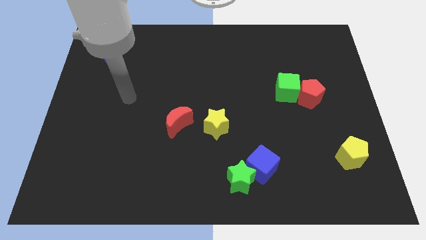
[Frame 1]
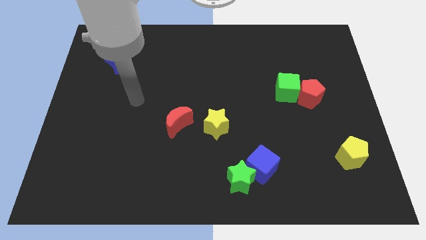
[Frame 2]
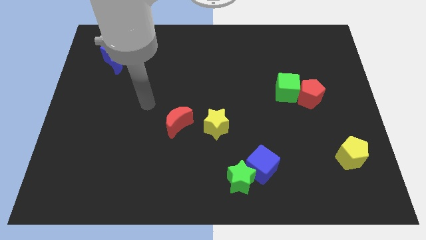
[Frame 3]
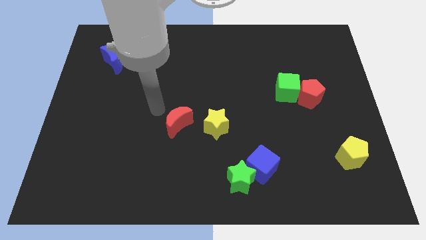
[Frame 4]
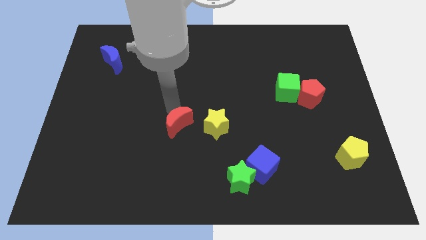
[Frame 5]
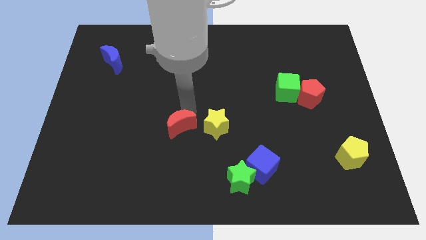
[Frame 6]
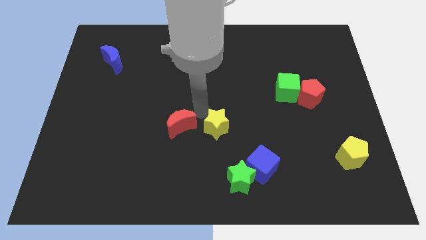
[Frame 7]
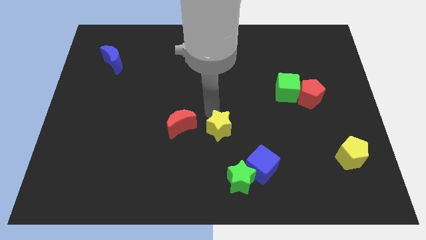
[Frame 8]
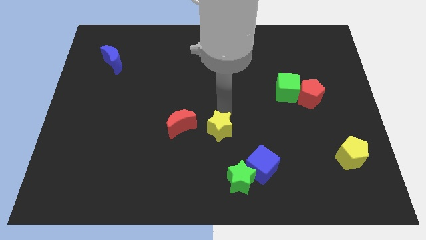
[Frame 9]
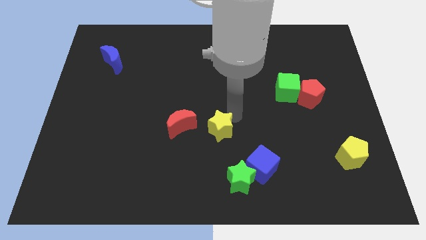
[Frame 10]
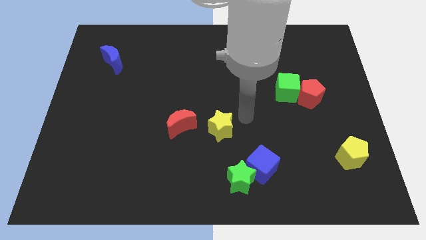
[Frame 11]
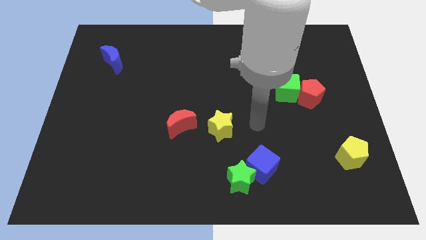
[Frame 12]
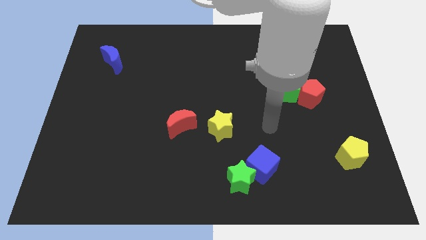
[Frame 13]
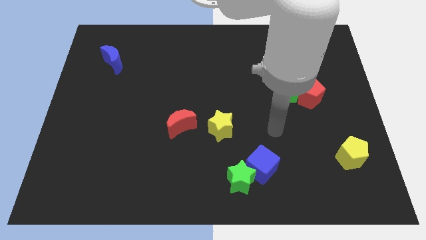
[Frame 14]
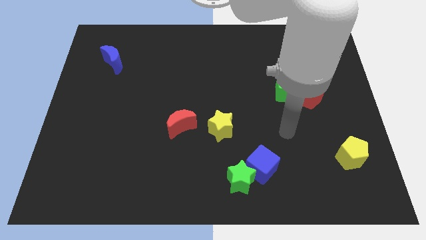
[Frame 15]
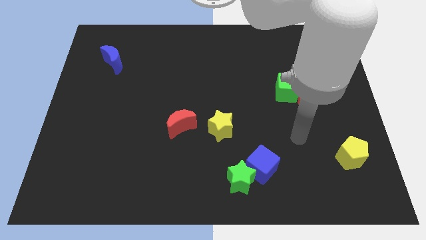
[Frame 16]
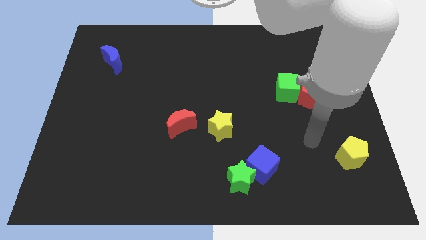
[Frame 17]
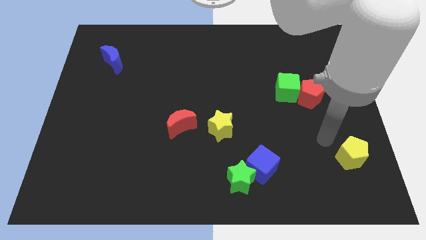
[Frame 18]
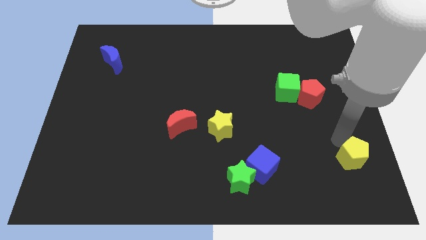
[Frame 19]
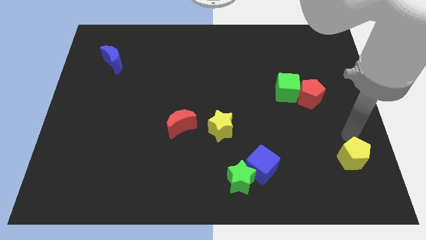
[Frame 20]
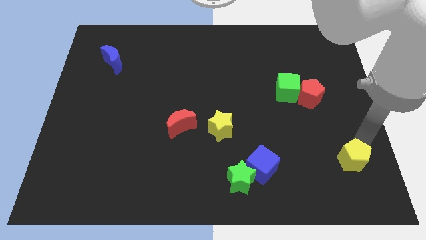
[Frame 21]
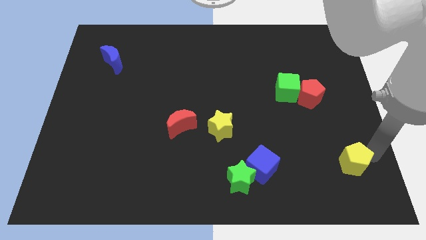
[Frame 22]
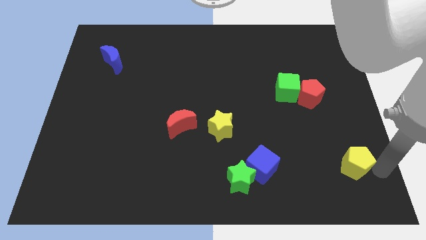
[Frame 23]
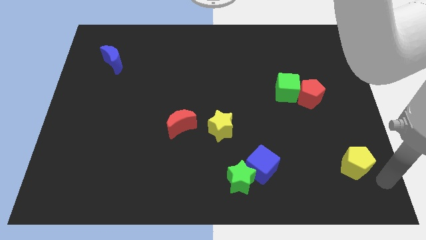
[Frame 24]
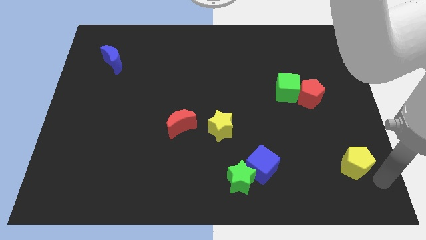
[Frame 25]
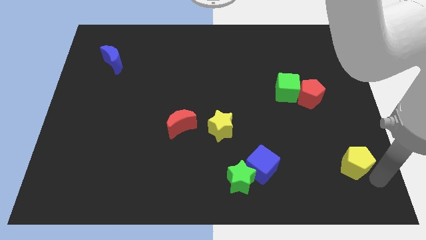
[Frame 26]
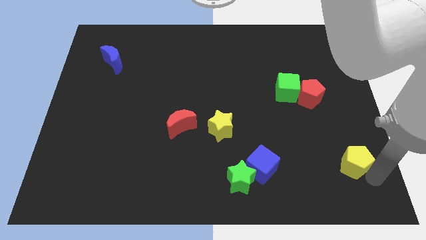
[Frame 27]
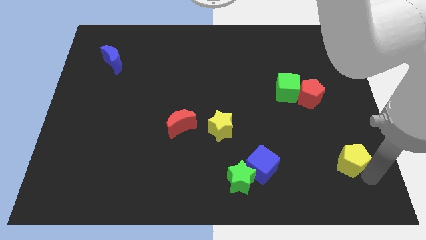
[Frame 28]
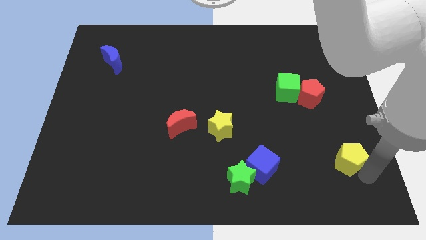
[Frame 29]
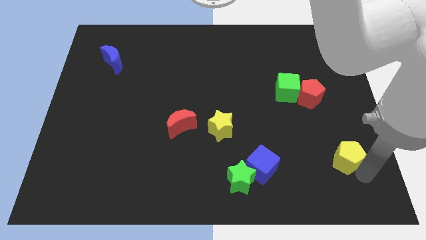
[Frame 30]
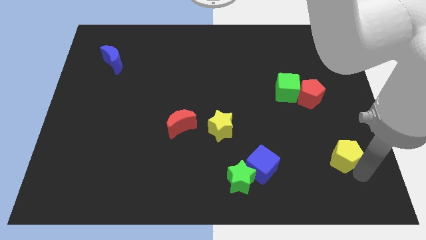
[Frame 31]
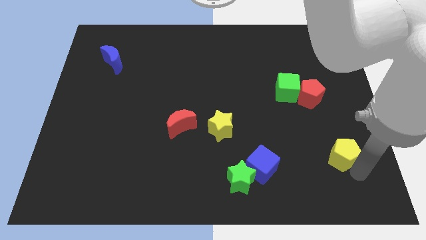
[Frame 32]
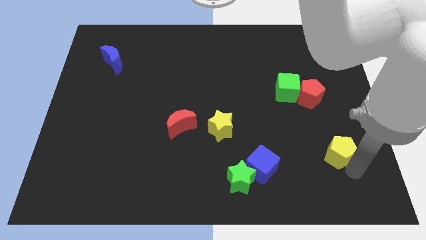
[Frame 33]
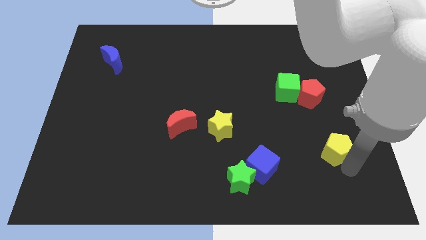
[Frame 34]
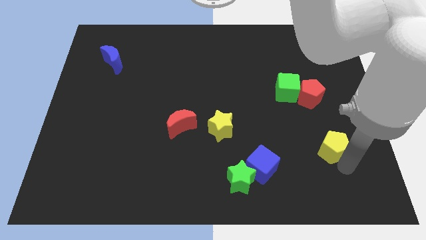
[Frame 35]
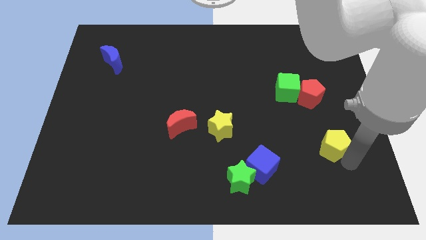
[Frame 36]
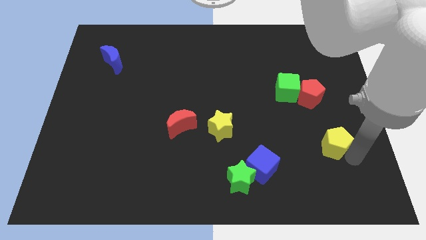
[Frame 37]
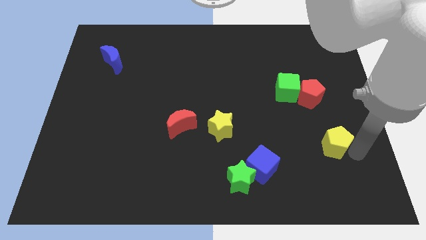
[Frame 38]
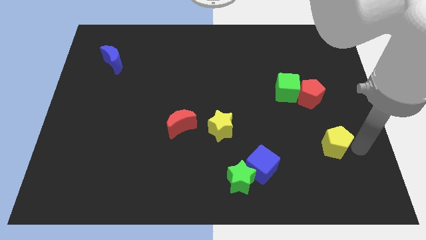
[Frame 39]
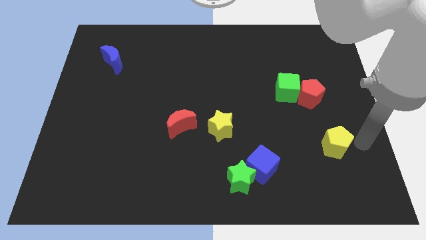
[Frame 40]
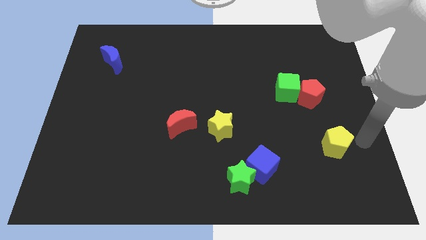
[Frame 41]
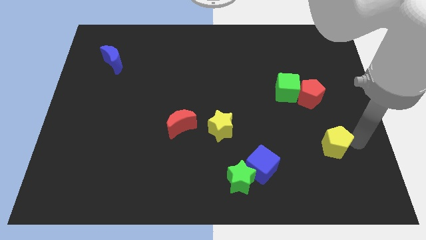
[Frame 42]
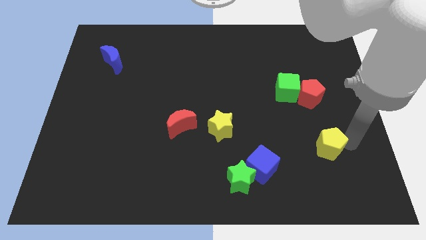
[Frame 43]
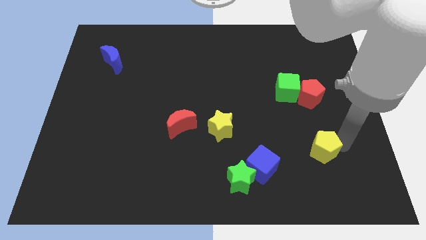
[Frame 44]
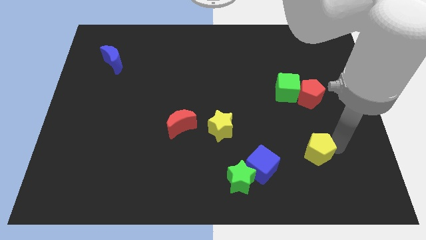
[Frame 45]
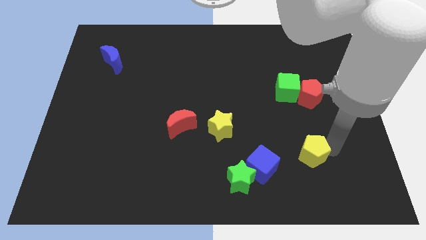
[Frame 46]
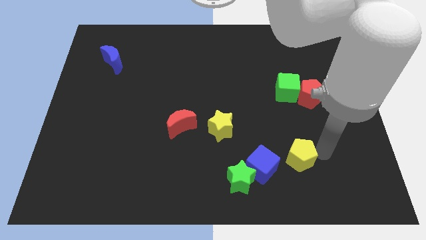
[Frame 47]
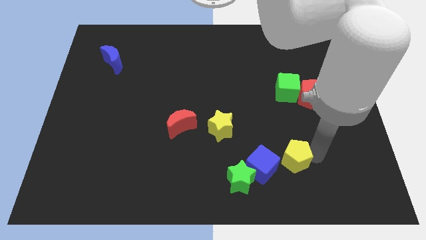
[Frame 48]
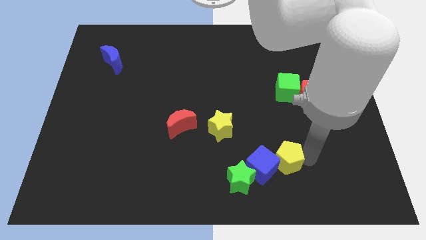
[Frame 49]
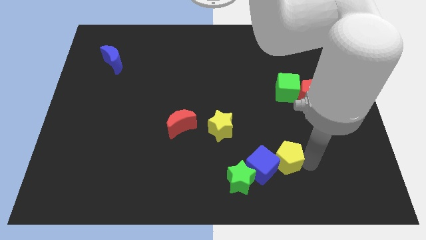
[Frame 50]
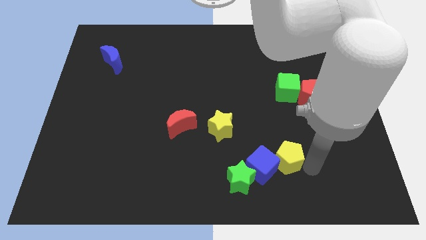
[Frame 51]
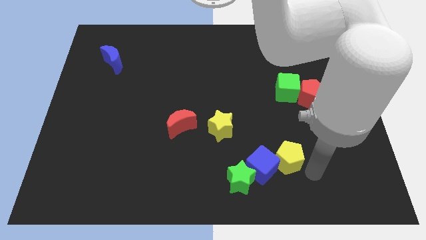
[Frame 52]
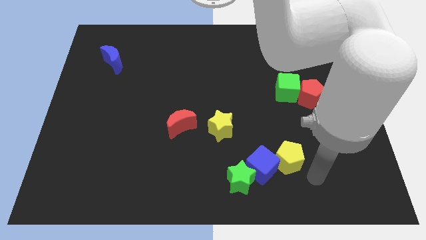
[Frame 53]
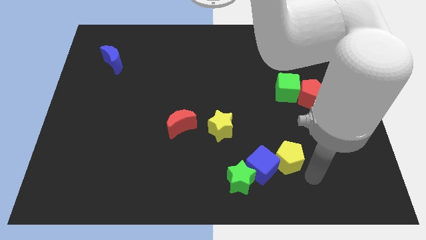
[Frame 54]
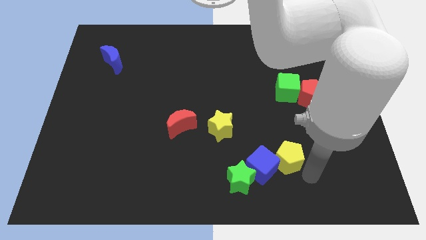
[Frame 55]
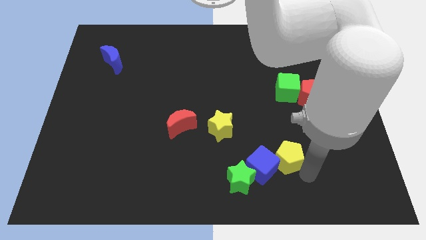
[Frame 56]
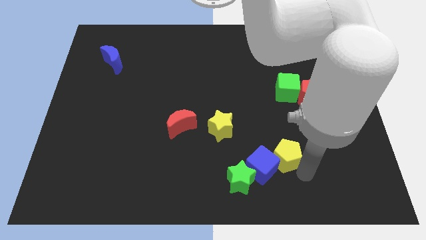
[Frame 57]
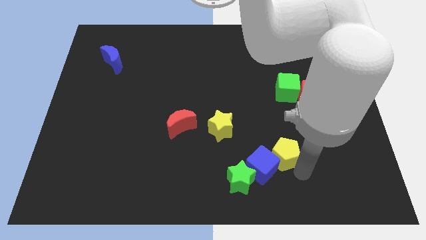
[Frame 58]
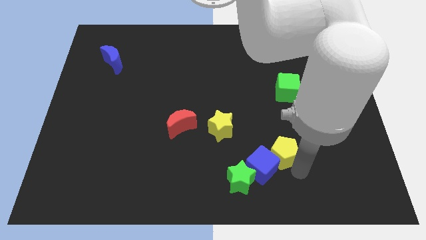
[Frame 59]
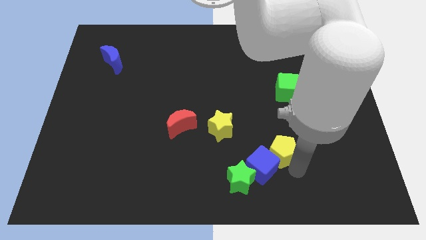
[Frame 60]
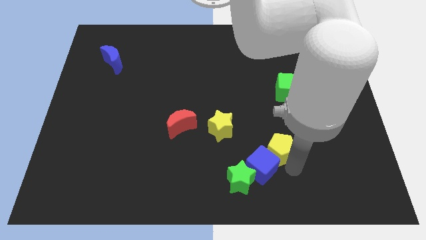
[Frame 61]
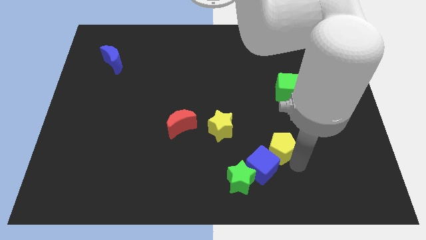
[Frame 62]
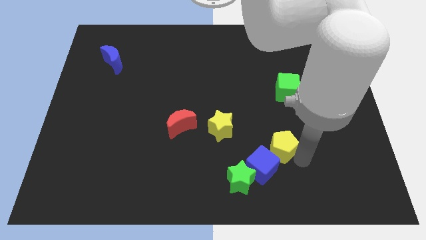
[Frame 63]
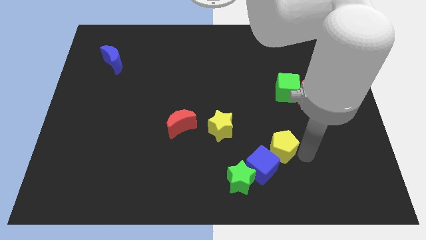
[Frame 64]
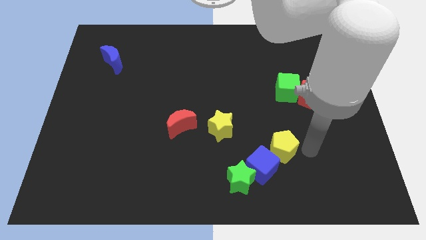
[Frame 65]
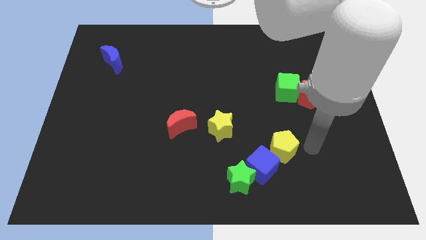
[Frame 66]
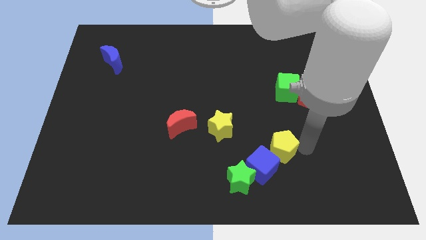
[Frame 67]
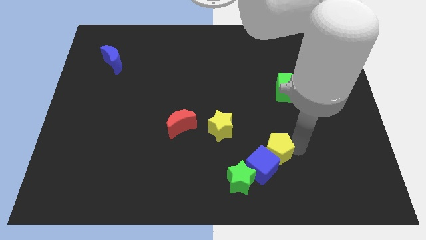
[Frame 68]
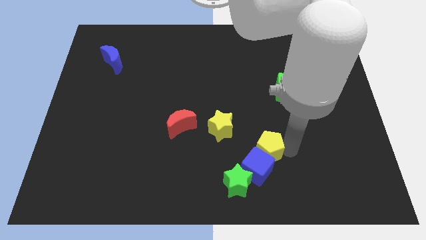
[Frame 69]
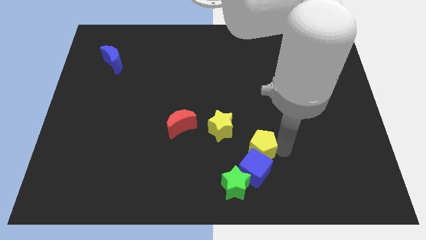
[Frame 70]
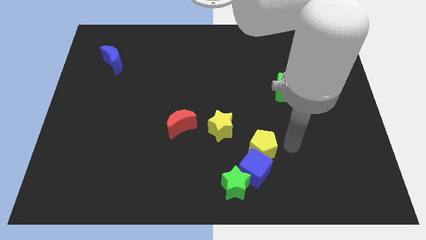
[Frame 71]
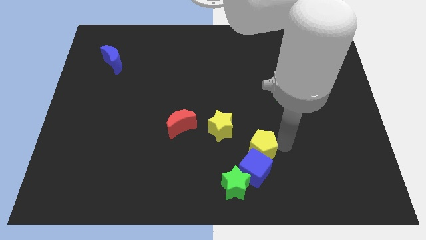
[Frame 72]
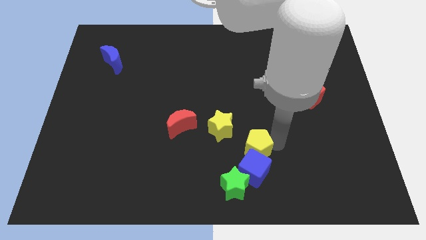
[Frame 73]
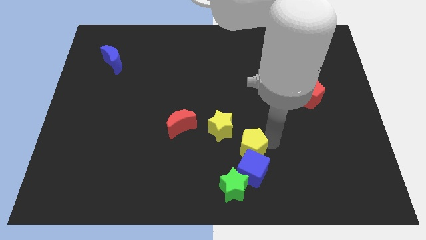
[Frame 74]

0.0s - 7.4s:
slide the yellow pentagon to the left

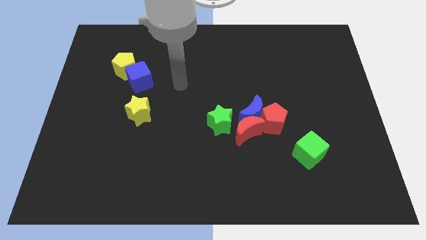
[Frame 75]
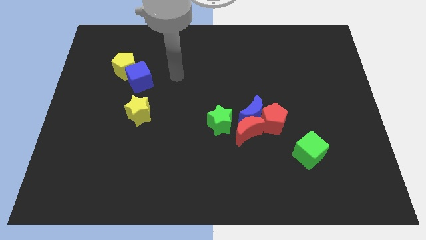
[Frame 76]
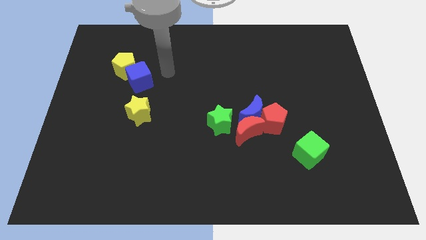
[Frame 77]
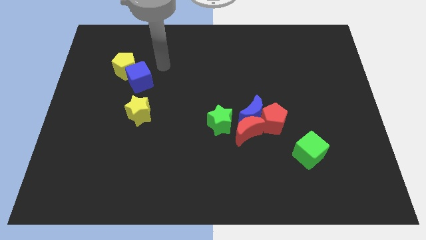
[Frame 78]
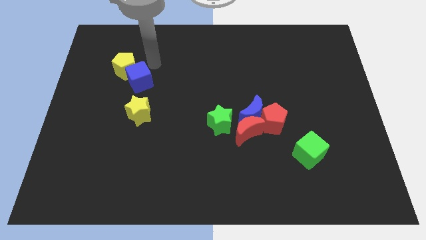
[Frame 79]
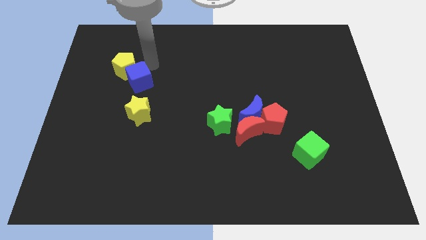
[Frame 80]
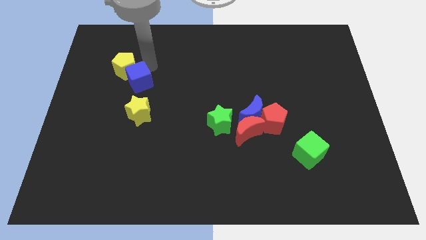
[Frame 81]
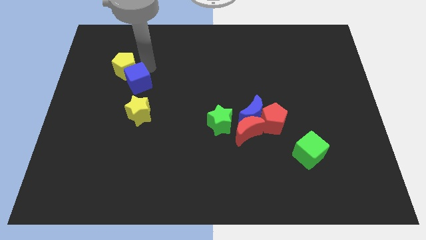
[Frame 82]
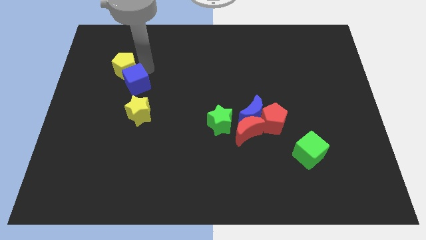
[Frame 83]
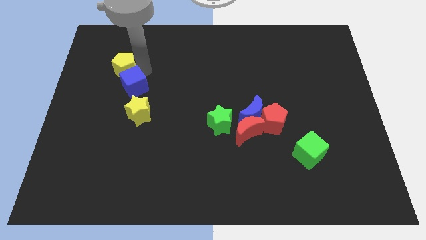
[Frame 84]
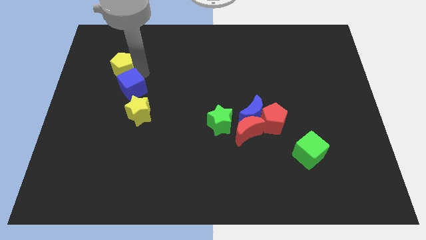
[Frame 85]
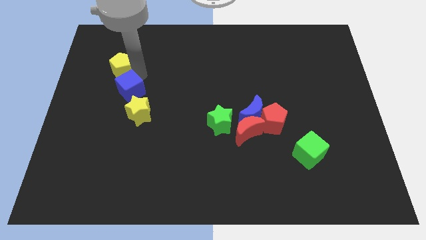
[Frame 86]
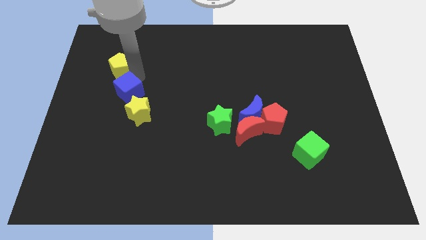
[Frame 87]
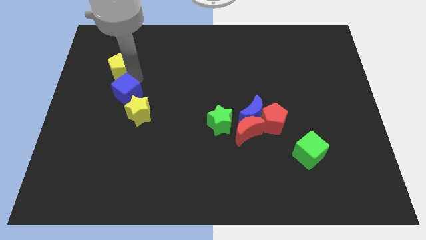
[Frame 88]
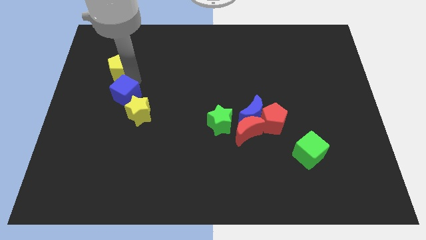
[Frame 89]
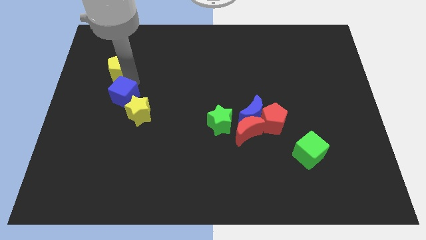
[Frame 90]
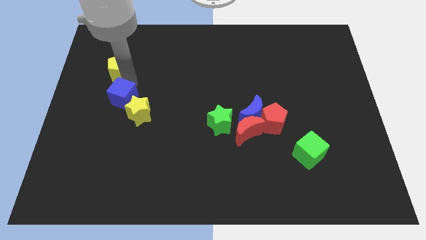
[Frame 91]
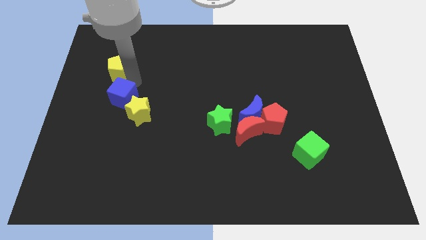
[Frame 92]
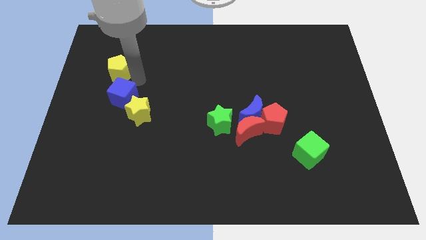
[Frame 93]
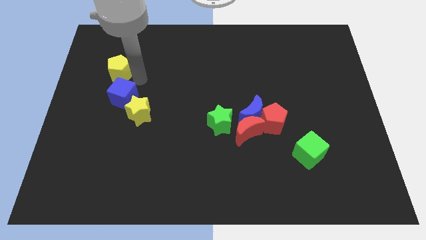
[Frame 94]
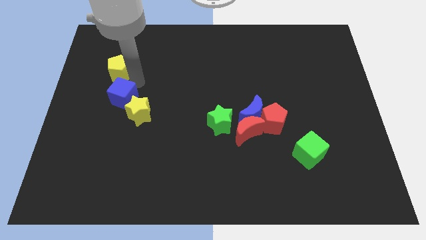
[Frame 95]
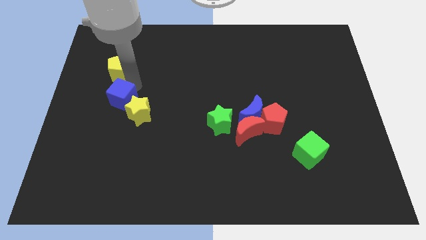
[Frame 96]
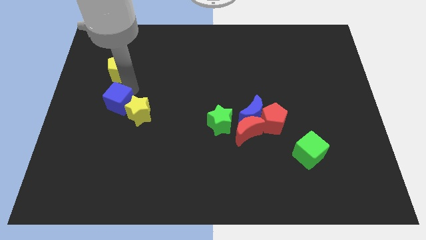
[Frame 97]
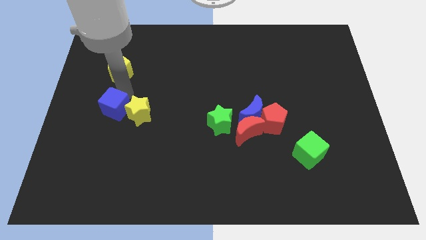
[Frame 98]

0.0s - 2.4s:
slightly move the blue cube down
